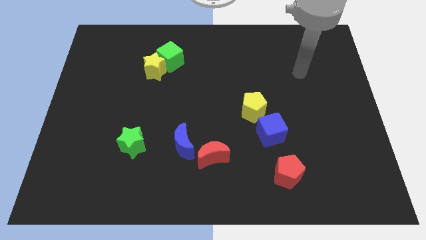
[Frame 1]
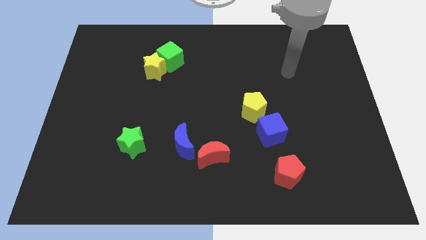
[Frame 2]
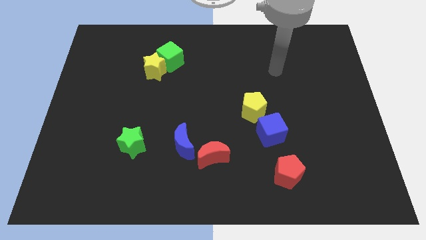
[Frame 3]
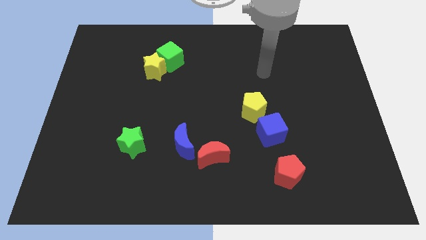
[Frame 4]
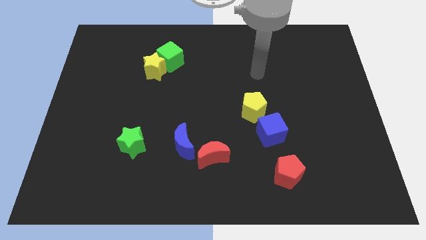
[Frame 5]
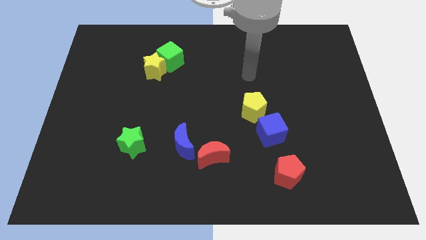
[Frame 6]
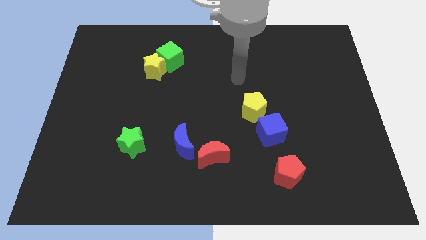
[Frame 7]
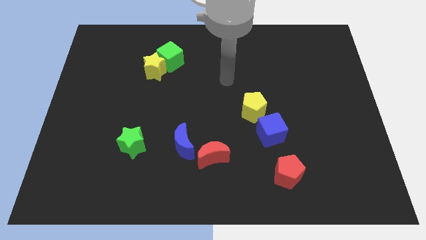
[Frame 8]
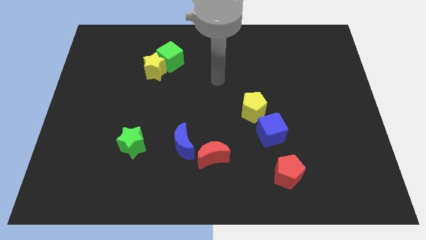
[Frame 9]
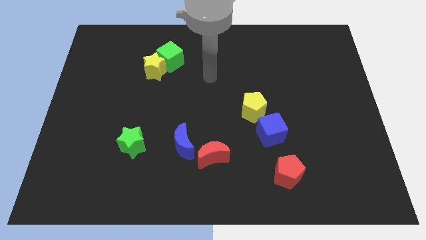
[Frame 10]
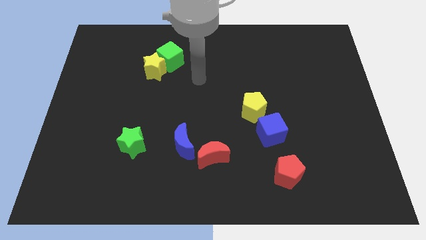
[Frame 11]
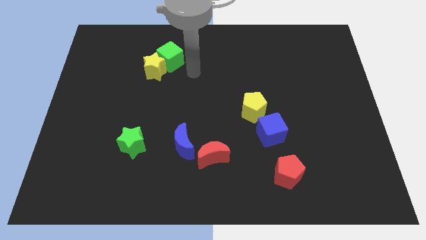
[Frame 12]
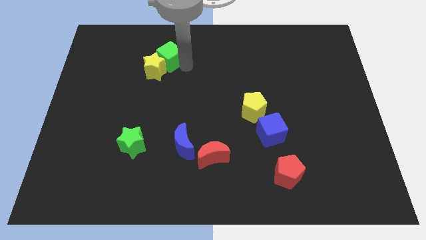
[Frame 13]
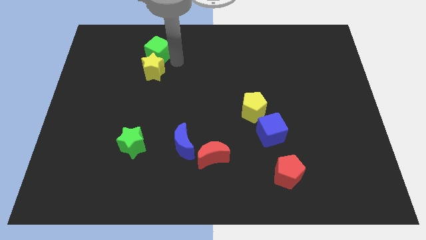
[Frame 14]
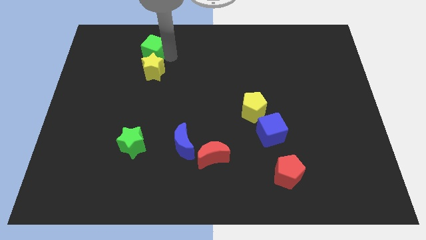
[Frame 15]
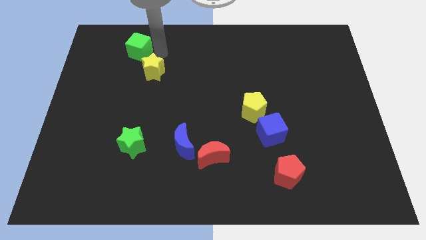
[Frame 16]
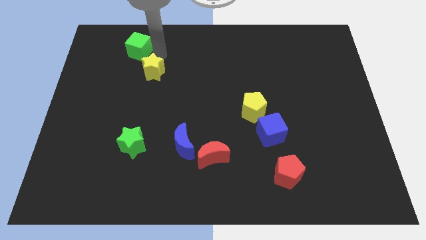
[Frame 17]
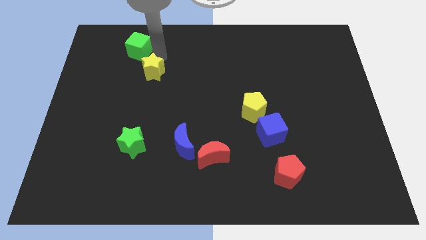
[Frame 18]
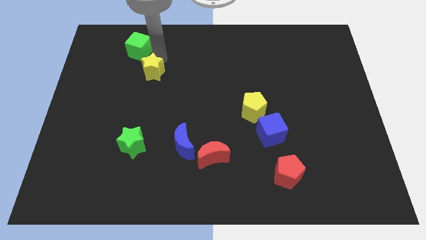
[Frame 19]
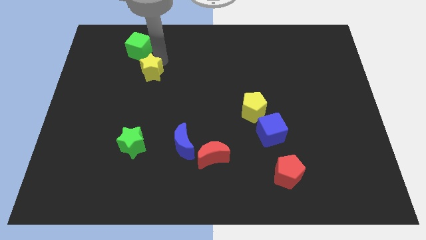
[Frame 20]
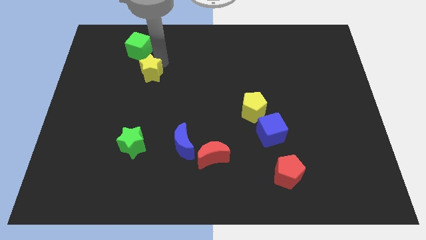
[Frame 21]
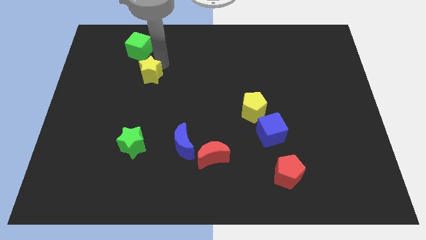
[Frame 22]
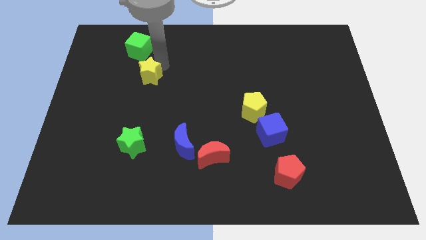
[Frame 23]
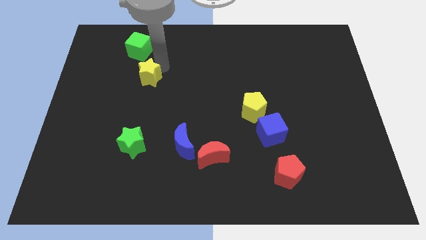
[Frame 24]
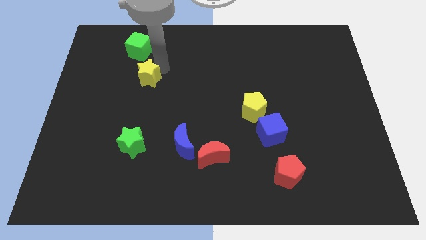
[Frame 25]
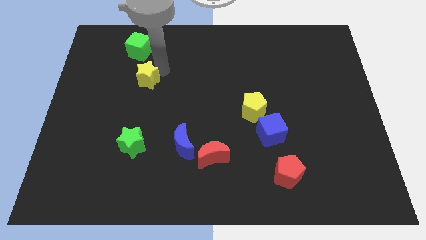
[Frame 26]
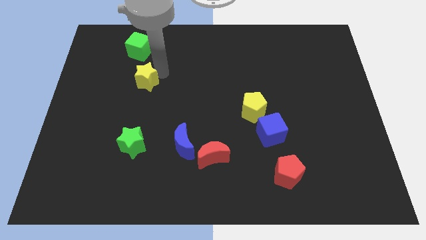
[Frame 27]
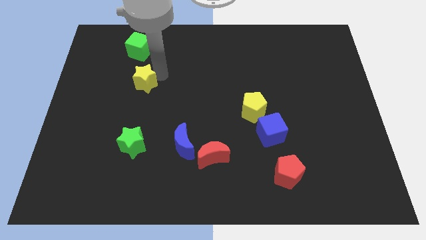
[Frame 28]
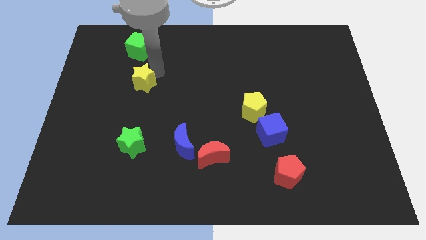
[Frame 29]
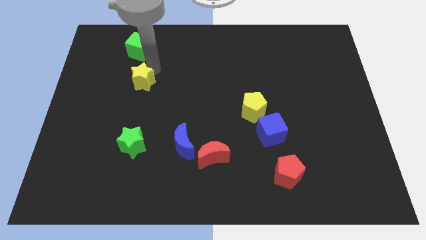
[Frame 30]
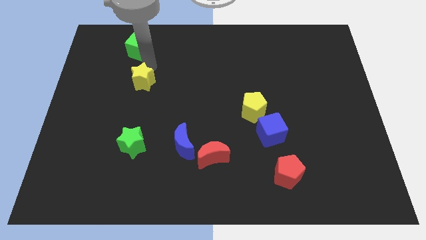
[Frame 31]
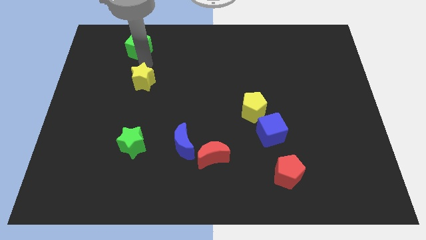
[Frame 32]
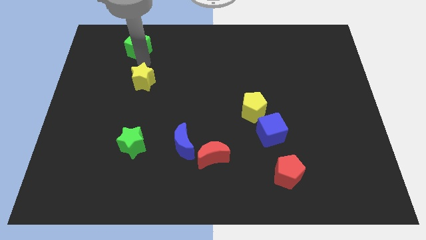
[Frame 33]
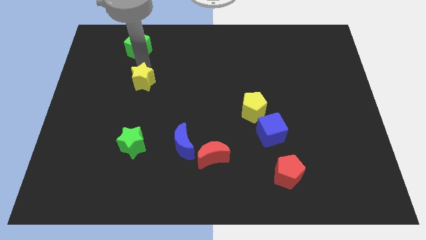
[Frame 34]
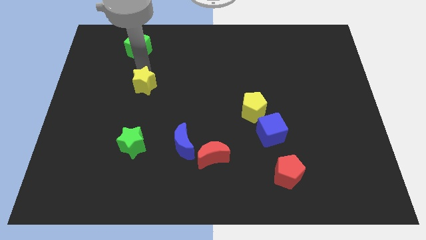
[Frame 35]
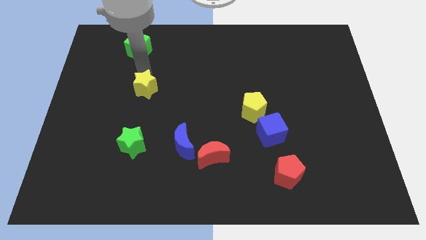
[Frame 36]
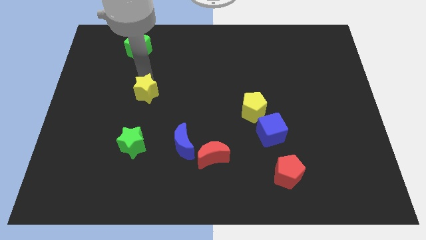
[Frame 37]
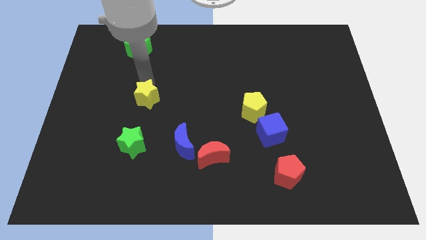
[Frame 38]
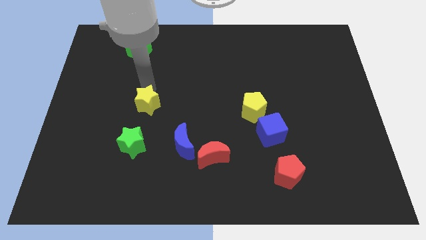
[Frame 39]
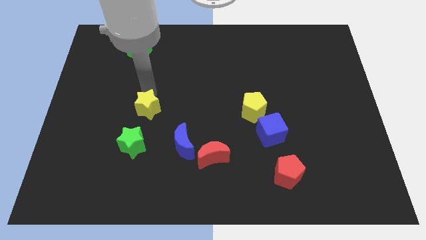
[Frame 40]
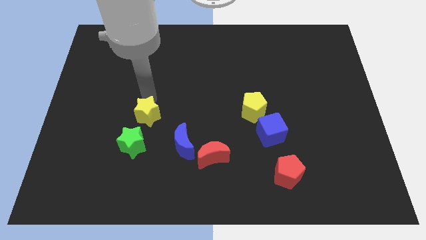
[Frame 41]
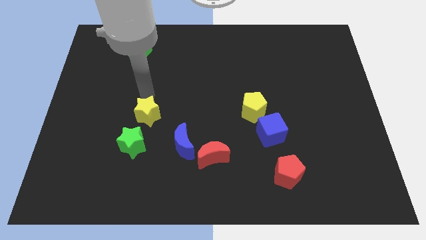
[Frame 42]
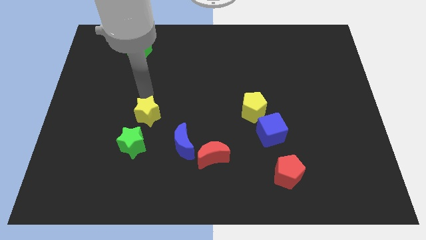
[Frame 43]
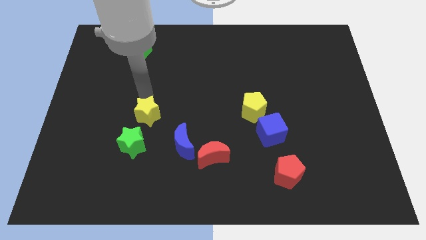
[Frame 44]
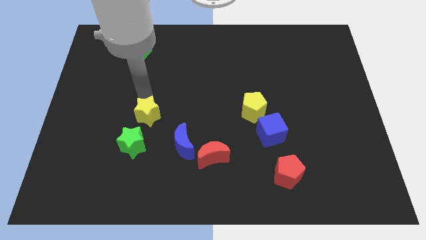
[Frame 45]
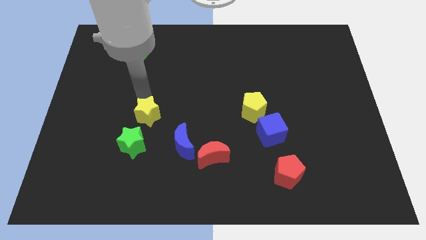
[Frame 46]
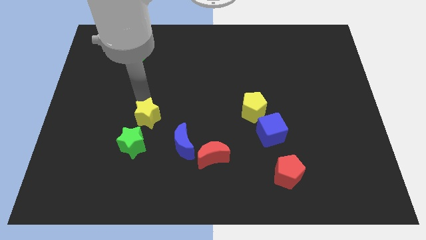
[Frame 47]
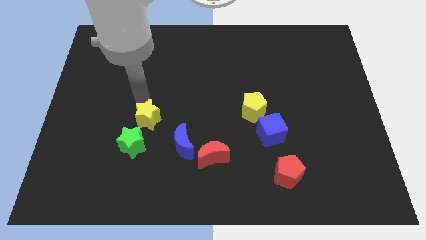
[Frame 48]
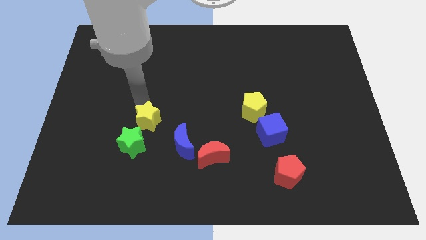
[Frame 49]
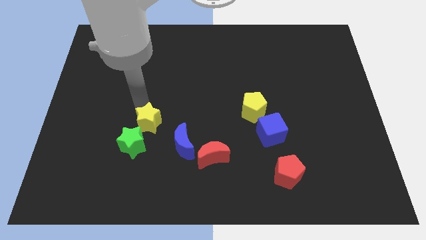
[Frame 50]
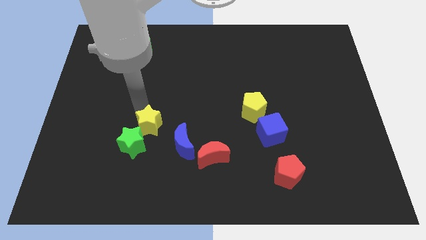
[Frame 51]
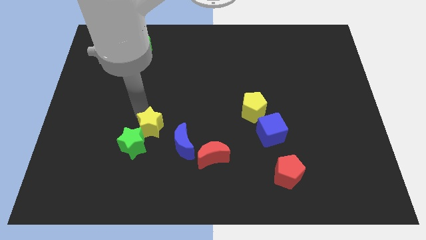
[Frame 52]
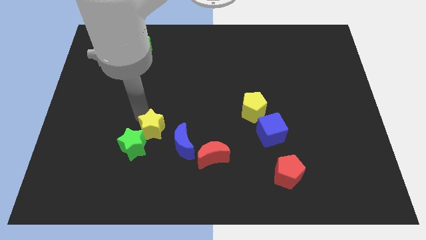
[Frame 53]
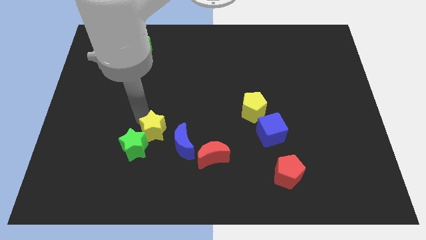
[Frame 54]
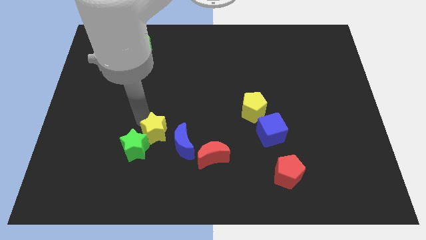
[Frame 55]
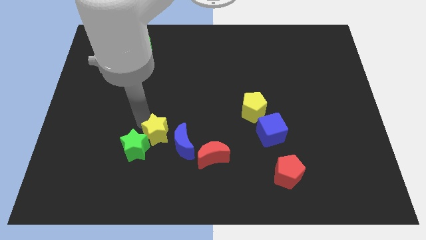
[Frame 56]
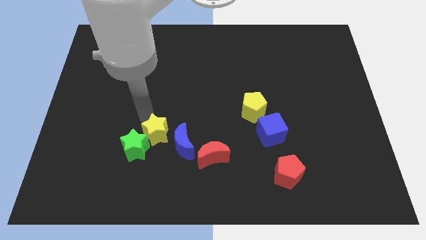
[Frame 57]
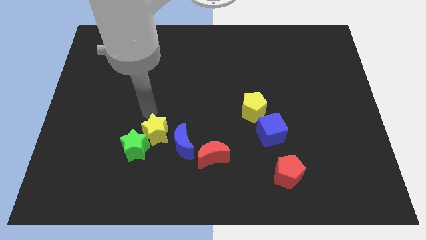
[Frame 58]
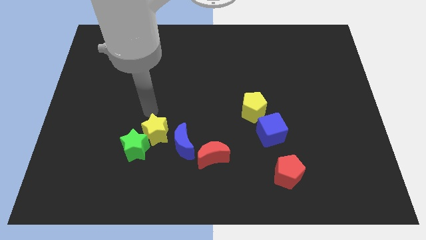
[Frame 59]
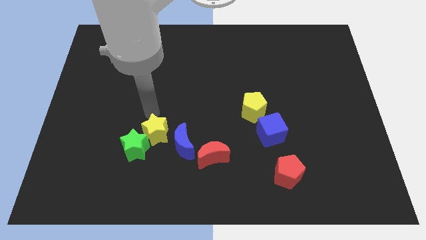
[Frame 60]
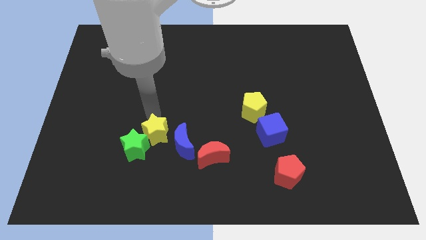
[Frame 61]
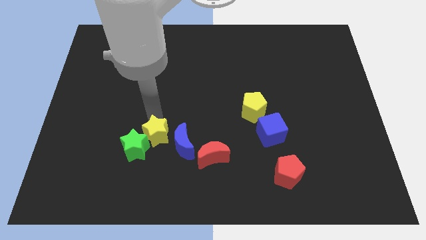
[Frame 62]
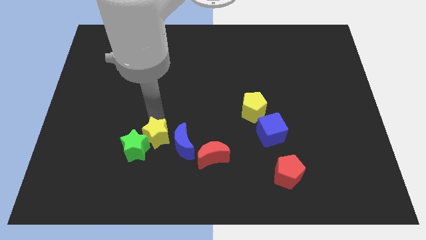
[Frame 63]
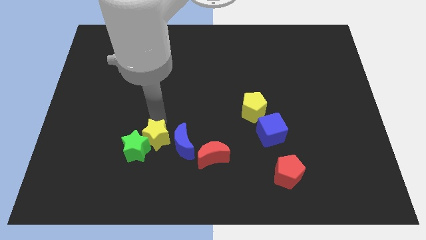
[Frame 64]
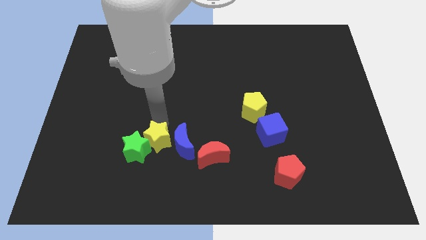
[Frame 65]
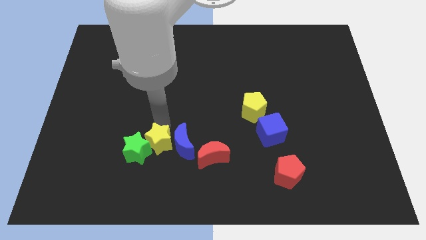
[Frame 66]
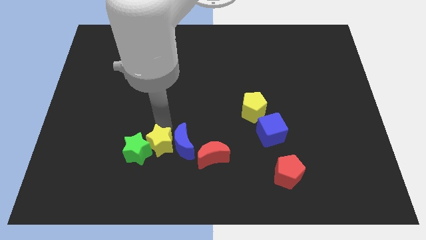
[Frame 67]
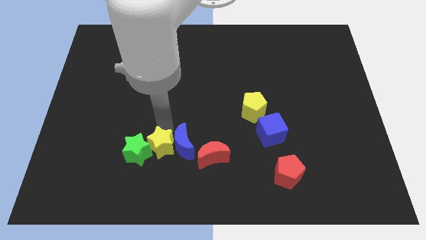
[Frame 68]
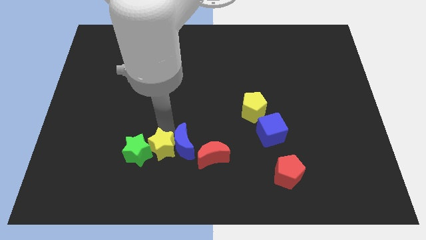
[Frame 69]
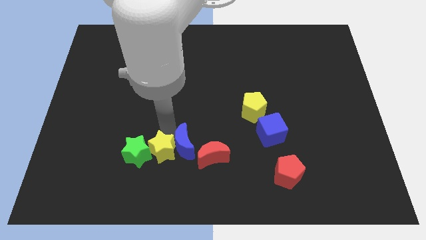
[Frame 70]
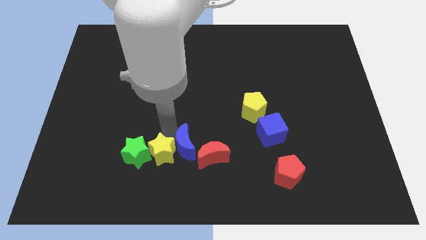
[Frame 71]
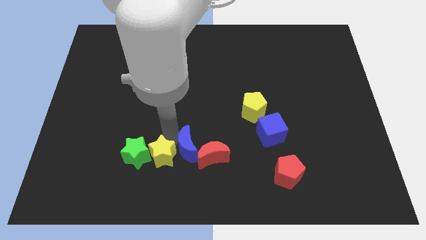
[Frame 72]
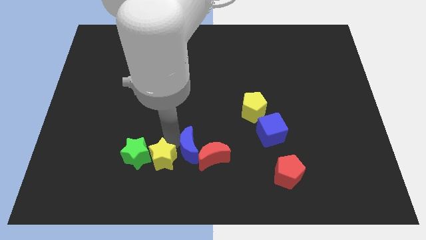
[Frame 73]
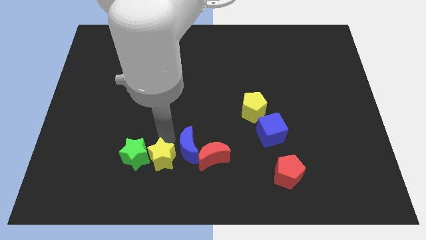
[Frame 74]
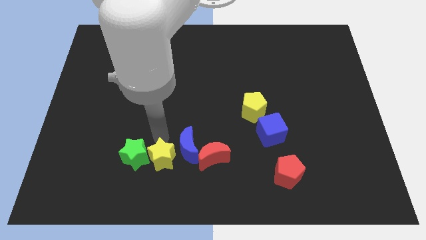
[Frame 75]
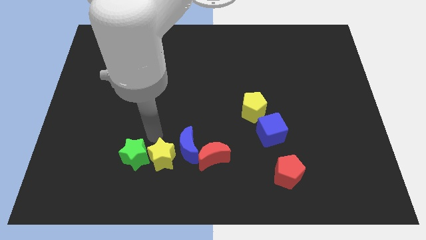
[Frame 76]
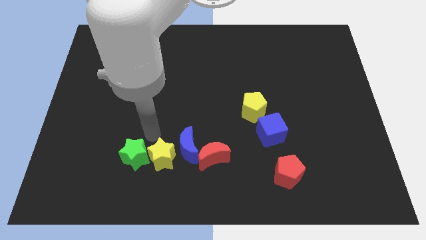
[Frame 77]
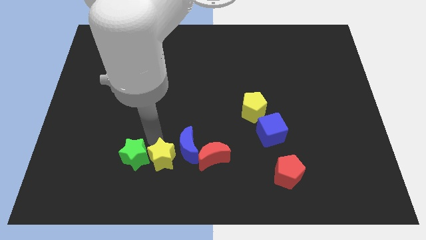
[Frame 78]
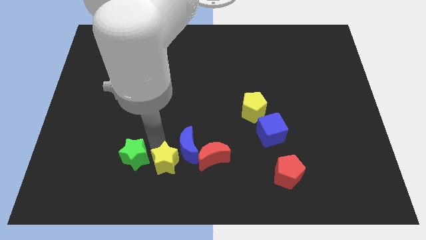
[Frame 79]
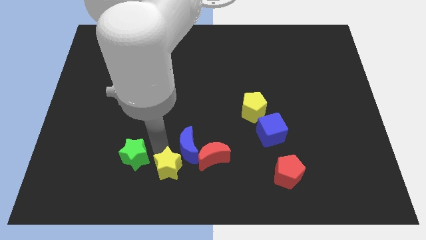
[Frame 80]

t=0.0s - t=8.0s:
move the yellow star to the bottom
